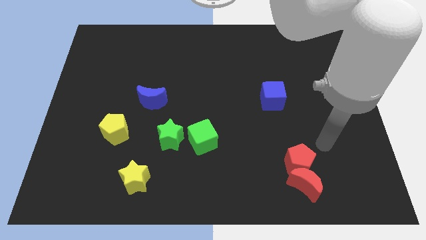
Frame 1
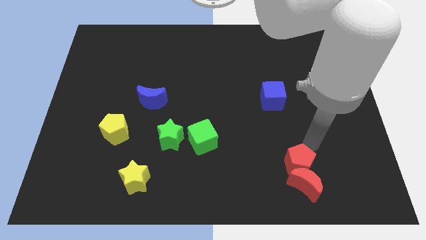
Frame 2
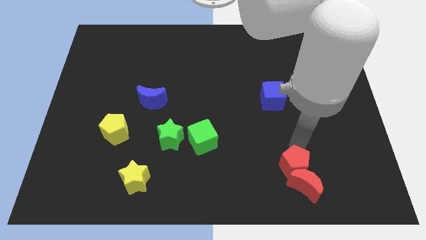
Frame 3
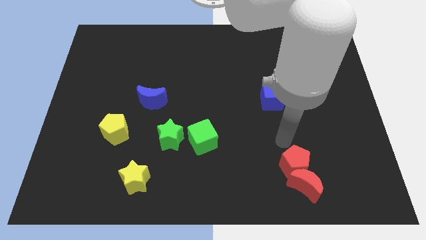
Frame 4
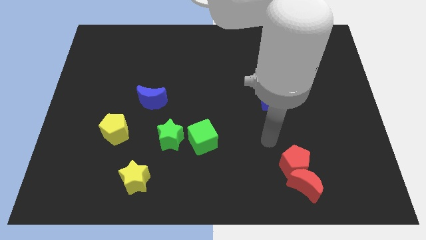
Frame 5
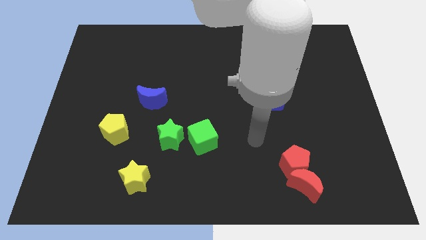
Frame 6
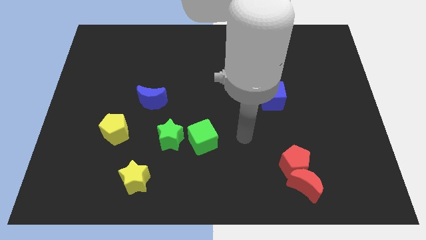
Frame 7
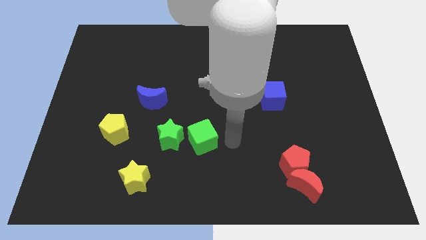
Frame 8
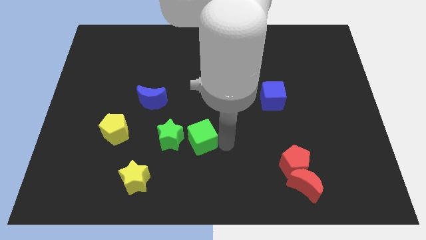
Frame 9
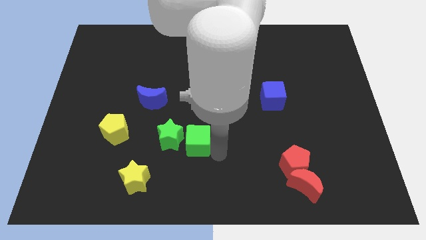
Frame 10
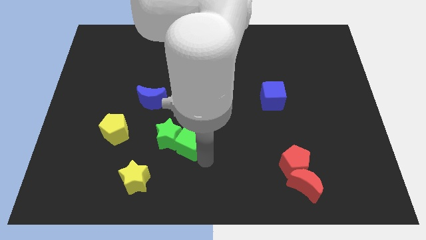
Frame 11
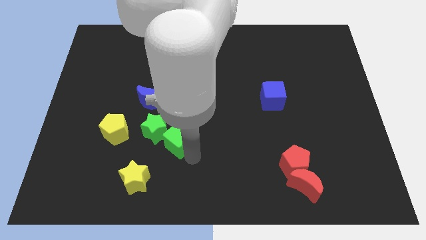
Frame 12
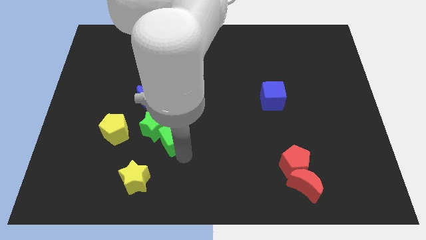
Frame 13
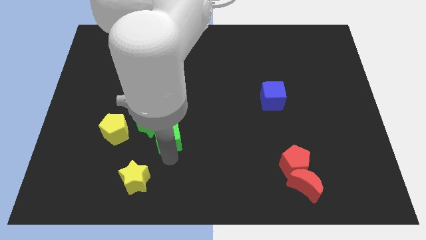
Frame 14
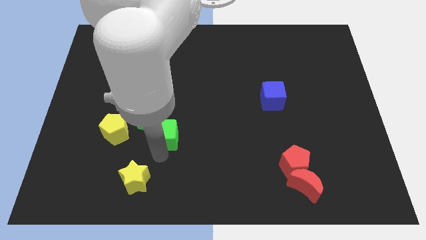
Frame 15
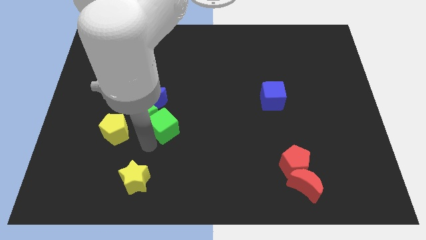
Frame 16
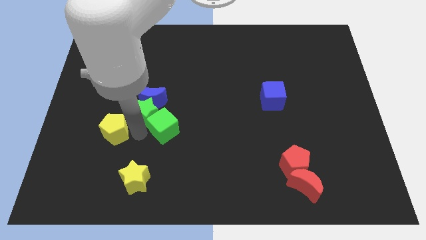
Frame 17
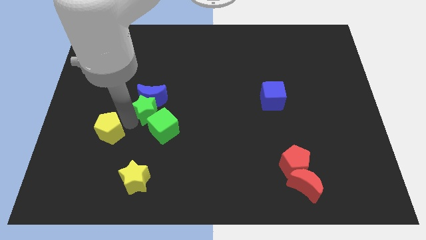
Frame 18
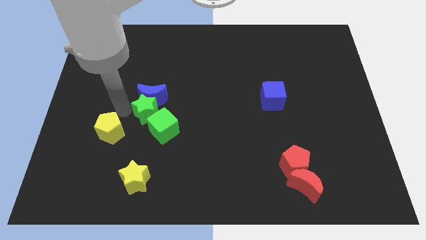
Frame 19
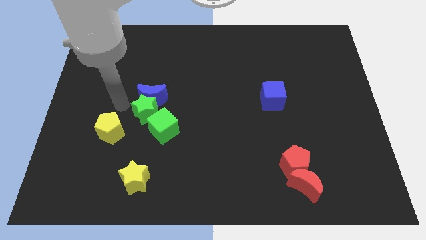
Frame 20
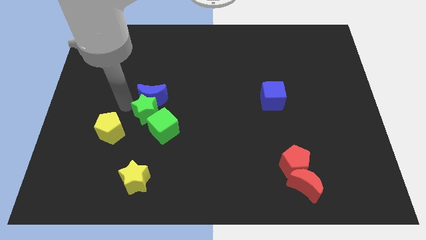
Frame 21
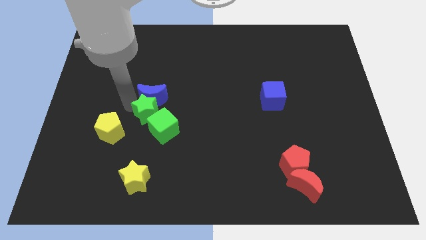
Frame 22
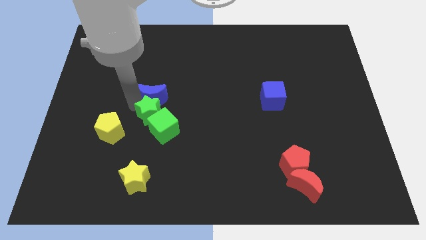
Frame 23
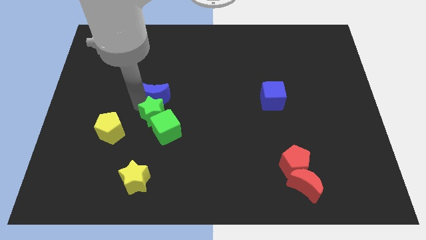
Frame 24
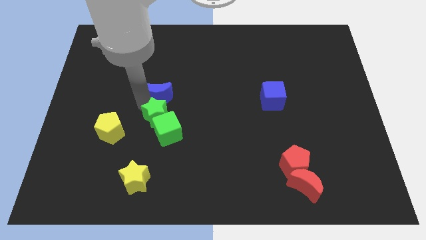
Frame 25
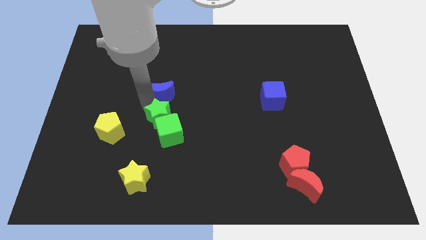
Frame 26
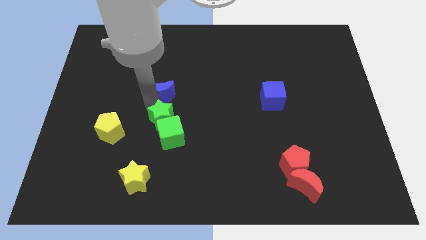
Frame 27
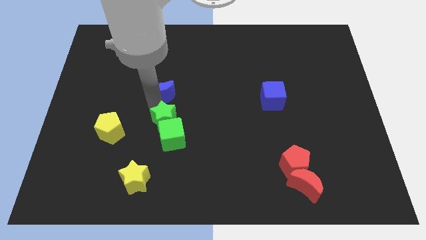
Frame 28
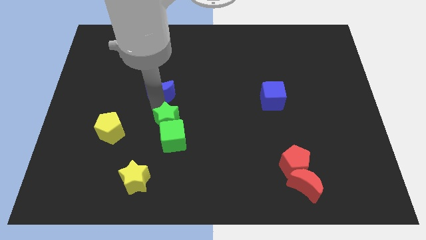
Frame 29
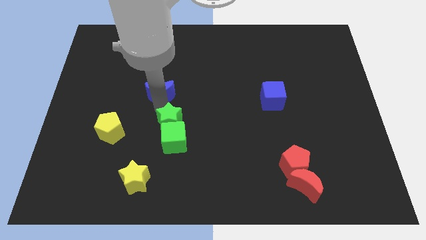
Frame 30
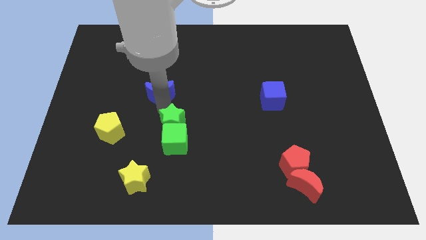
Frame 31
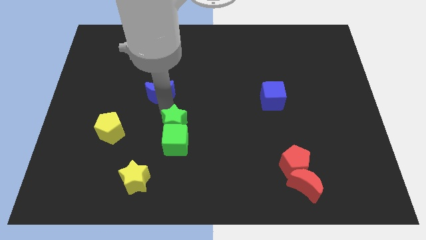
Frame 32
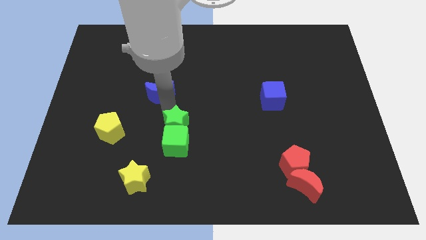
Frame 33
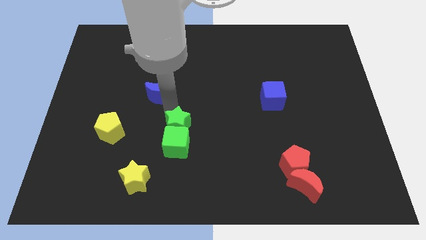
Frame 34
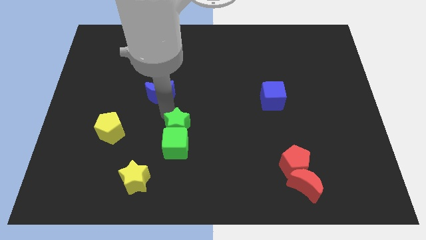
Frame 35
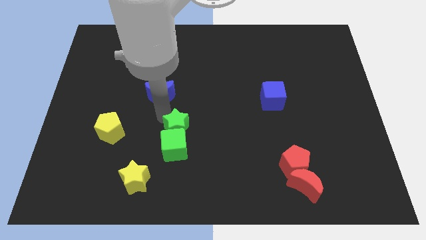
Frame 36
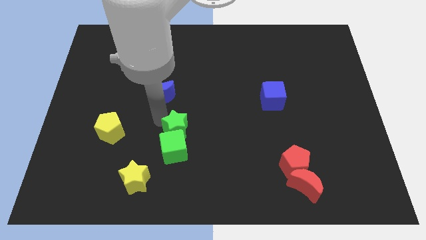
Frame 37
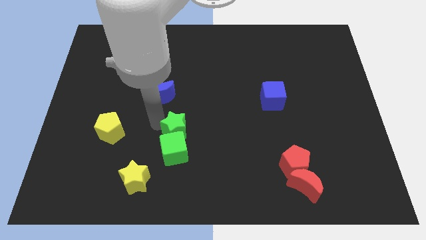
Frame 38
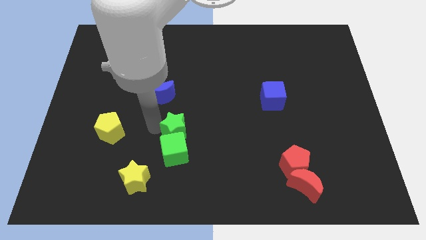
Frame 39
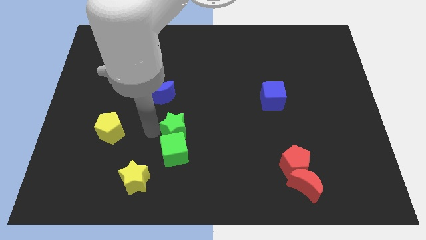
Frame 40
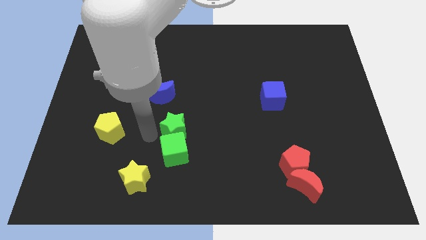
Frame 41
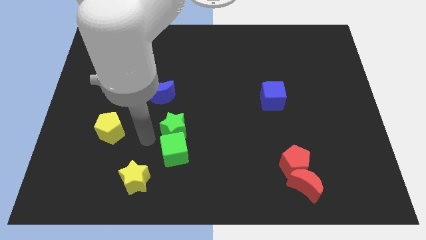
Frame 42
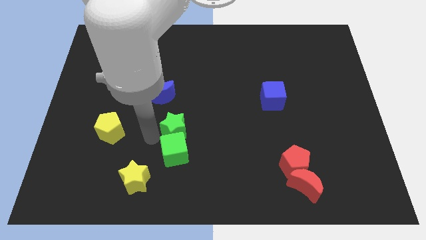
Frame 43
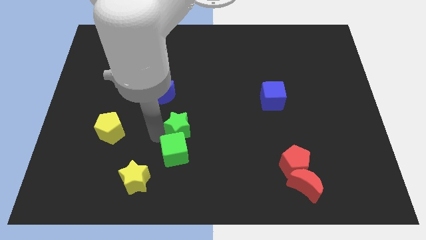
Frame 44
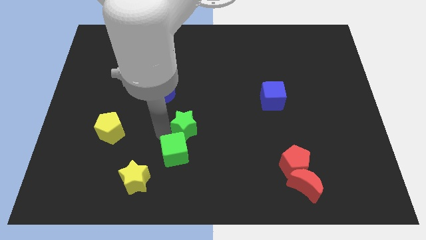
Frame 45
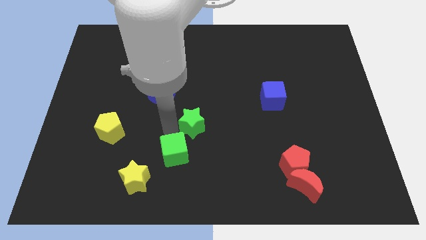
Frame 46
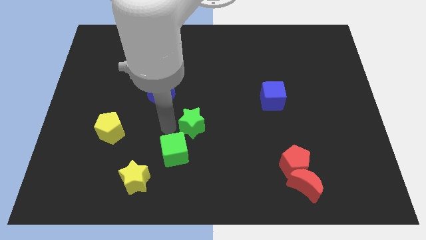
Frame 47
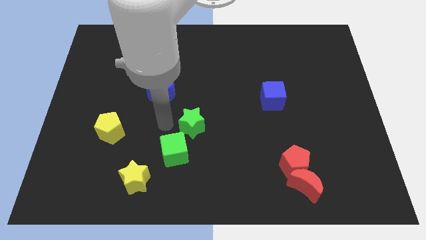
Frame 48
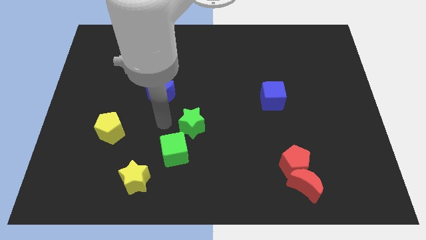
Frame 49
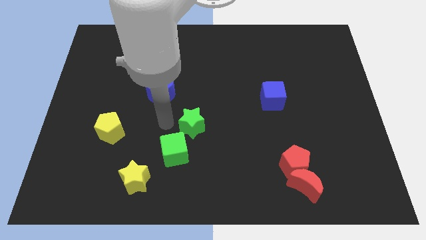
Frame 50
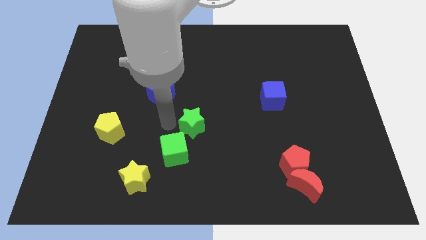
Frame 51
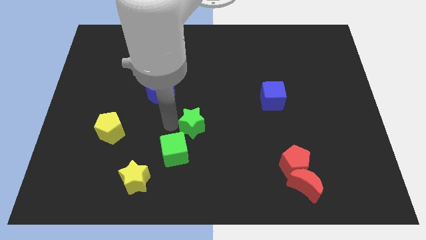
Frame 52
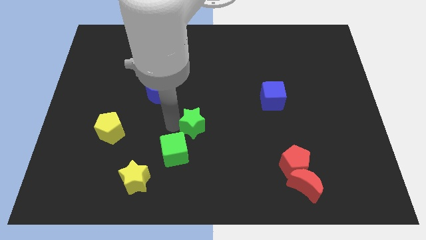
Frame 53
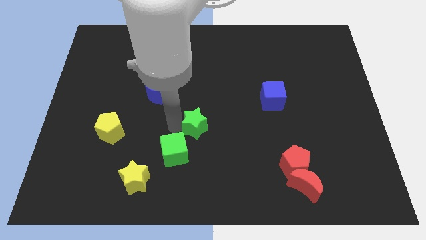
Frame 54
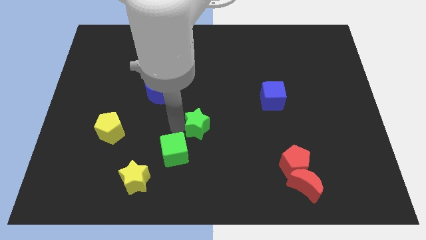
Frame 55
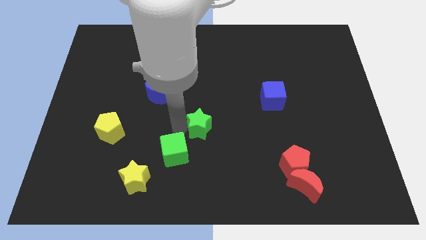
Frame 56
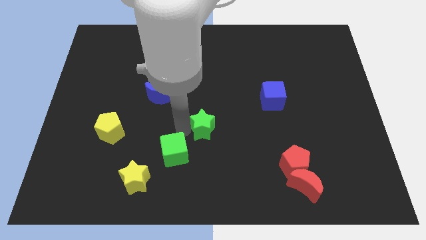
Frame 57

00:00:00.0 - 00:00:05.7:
move the green star right a bit

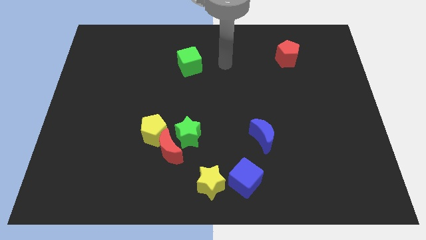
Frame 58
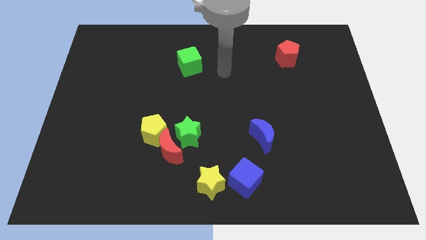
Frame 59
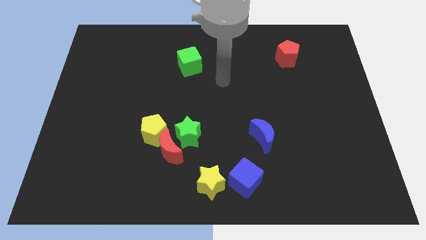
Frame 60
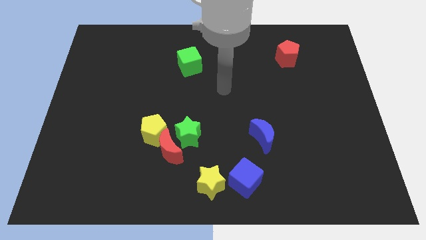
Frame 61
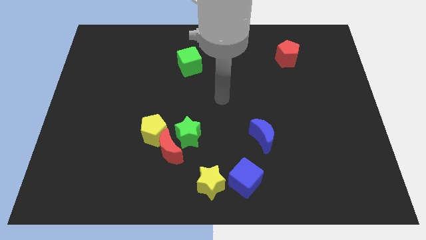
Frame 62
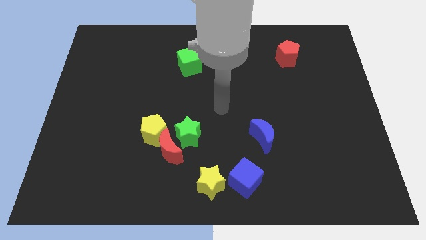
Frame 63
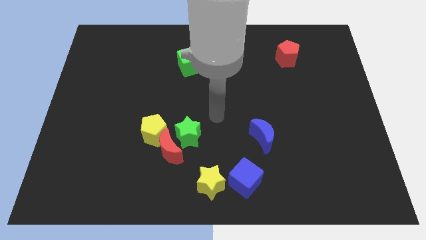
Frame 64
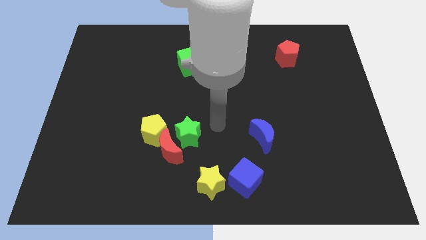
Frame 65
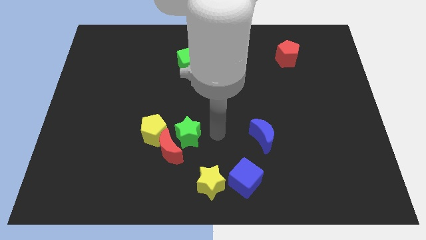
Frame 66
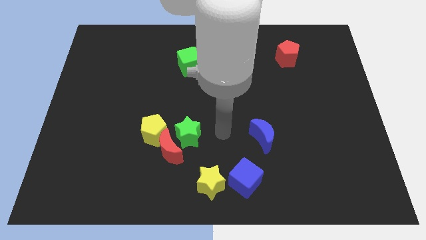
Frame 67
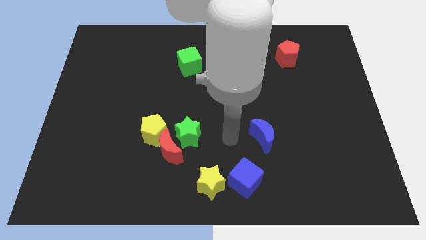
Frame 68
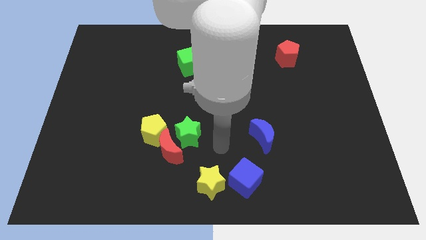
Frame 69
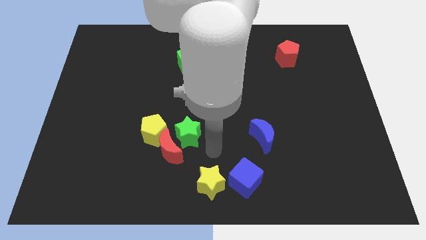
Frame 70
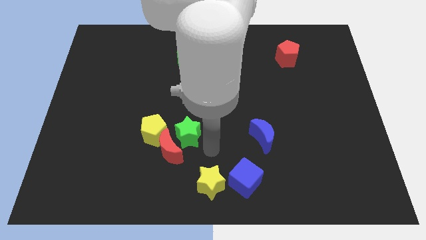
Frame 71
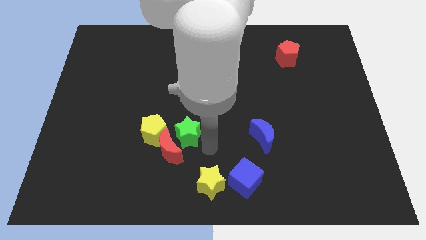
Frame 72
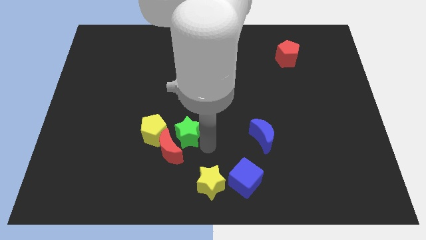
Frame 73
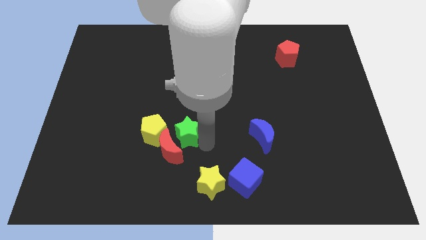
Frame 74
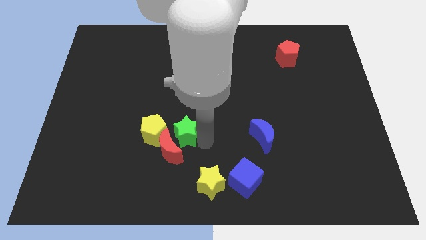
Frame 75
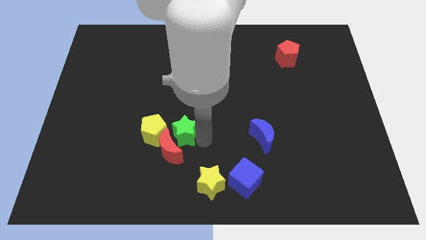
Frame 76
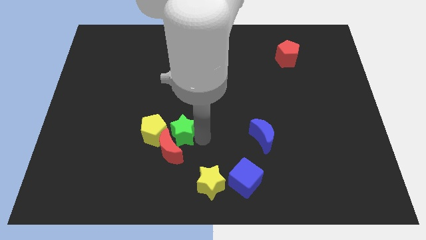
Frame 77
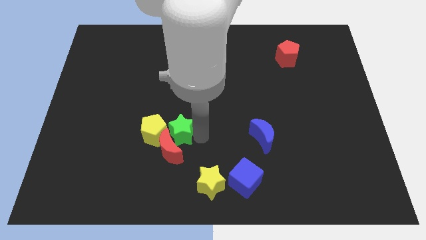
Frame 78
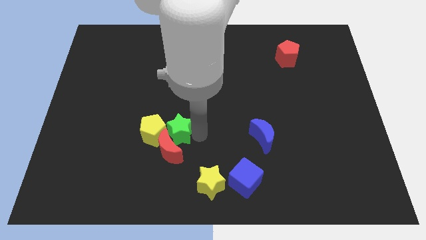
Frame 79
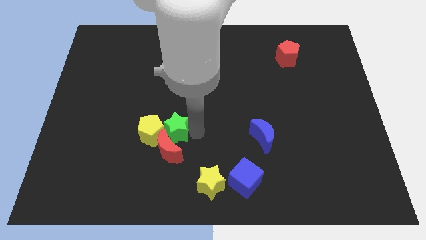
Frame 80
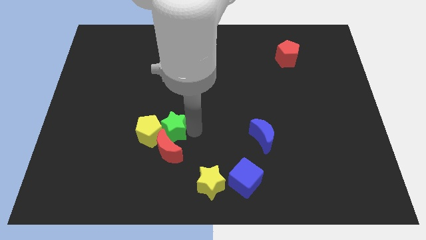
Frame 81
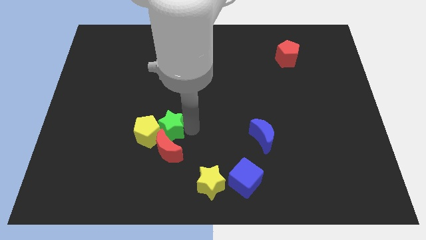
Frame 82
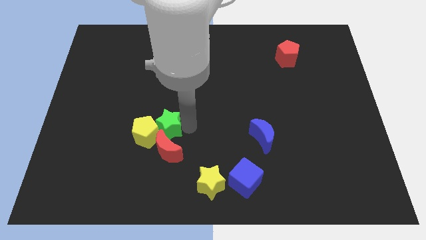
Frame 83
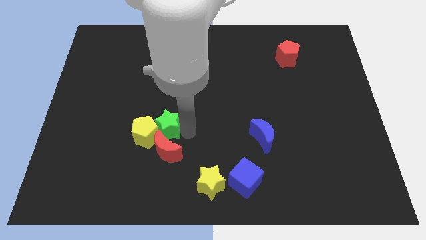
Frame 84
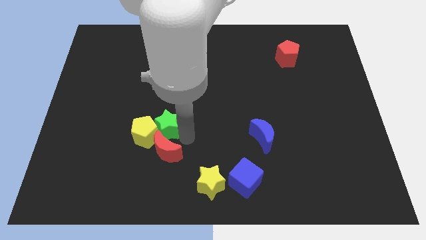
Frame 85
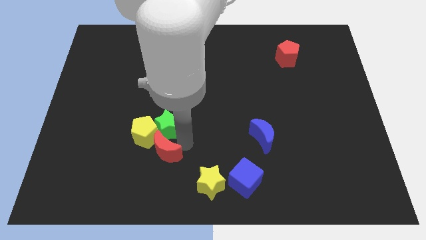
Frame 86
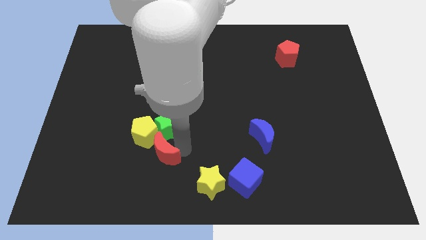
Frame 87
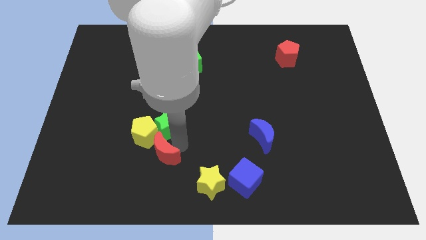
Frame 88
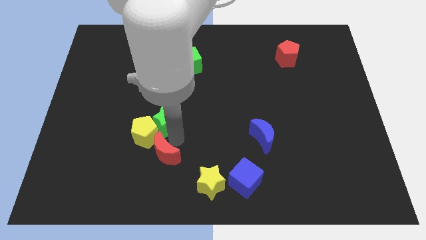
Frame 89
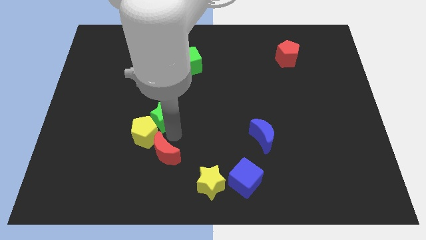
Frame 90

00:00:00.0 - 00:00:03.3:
push the green star a little bit up and to the left diagonally
